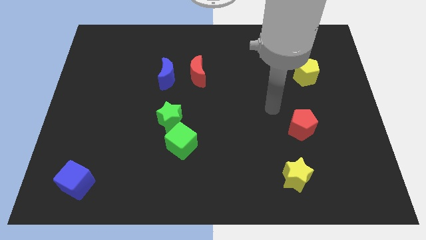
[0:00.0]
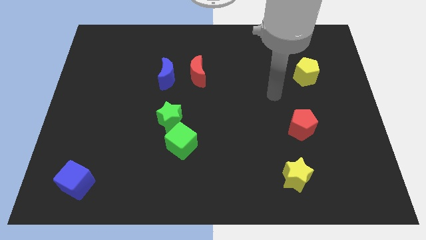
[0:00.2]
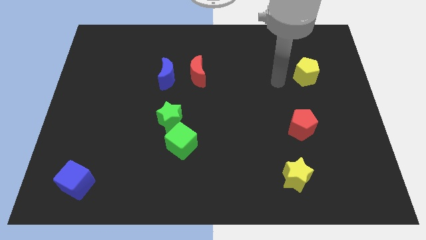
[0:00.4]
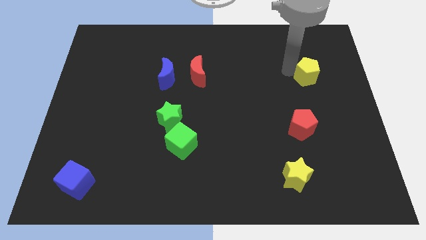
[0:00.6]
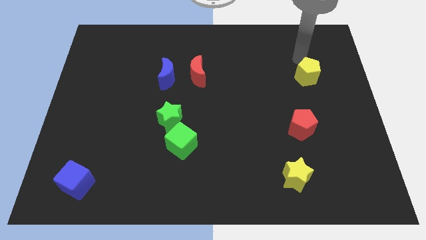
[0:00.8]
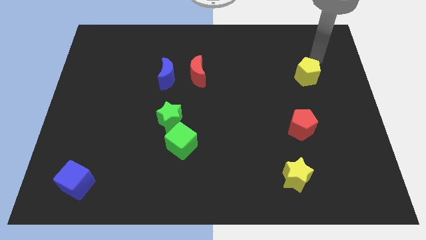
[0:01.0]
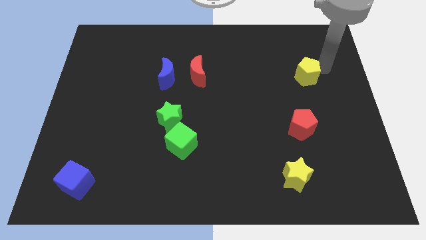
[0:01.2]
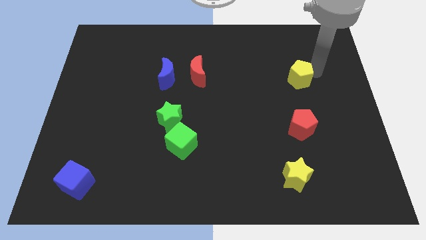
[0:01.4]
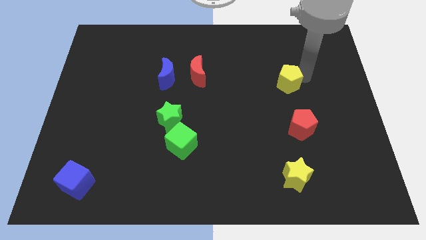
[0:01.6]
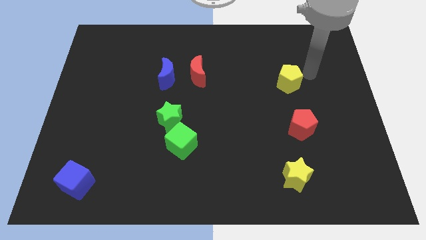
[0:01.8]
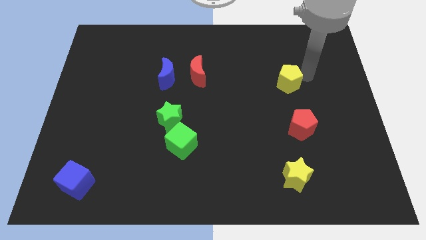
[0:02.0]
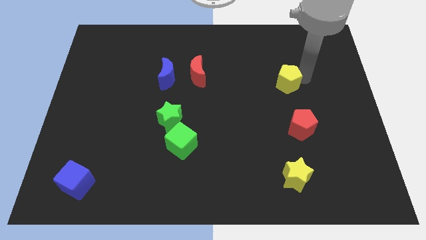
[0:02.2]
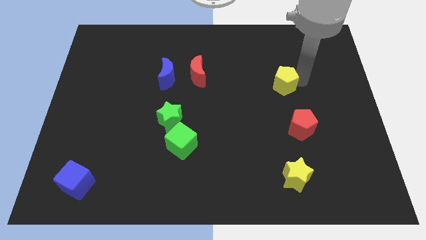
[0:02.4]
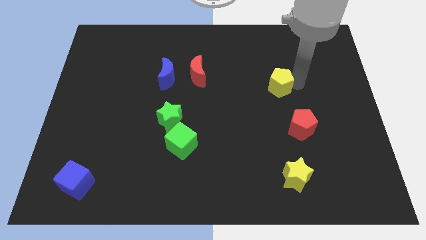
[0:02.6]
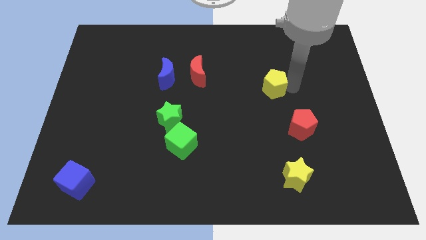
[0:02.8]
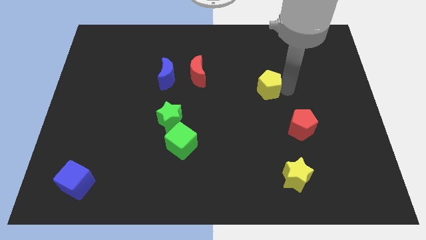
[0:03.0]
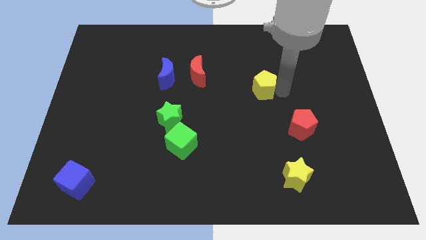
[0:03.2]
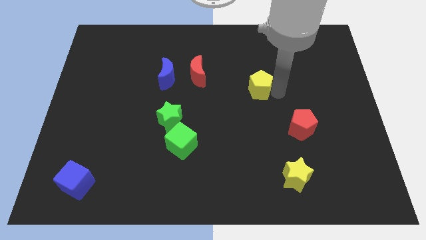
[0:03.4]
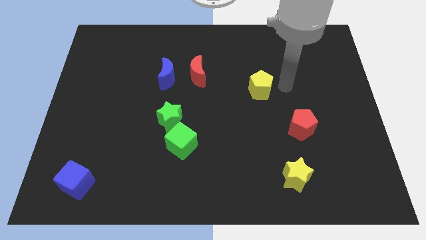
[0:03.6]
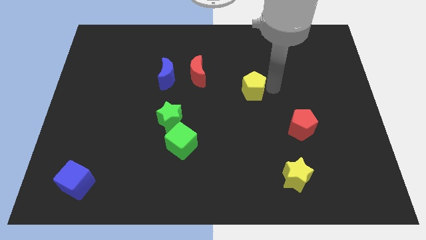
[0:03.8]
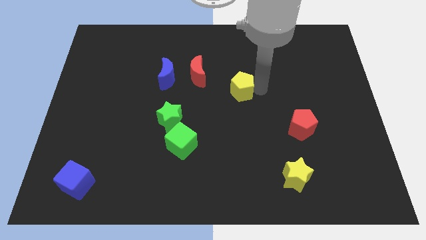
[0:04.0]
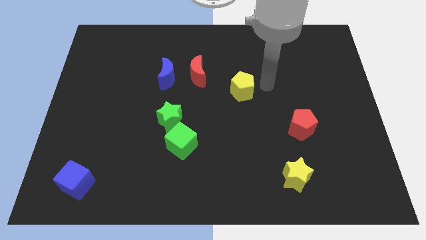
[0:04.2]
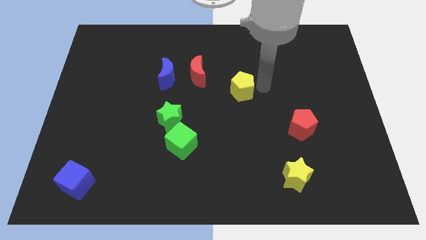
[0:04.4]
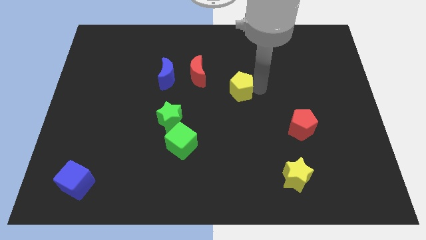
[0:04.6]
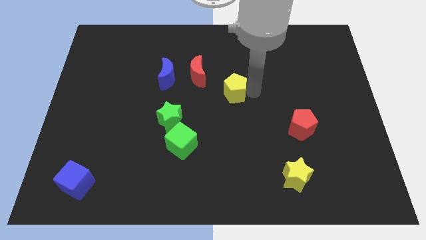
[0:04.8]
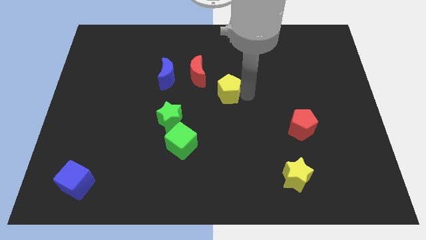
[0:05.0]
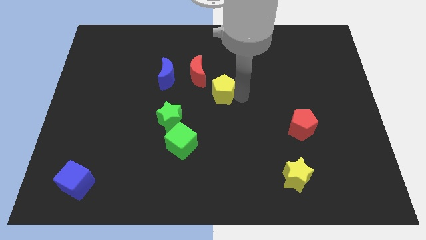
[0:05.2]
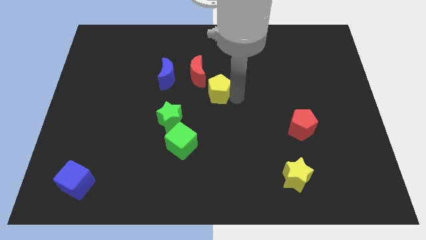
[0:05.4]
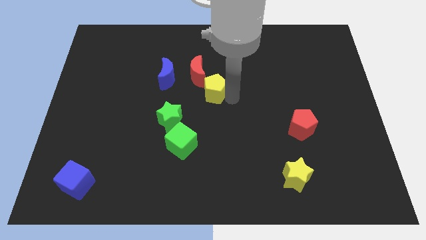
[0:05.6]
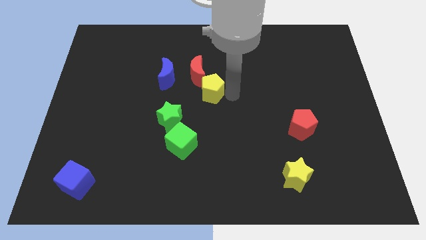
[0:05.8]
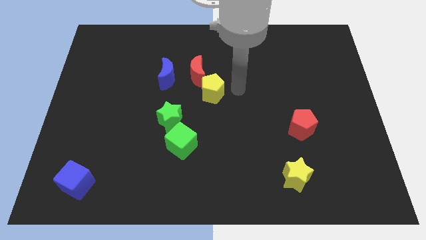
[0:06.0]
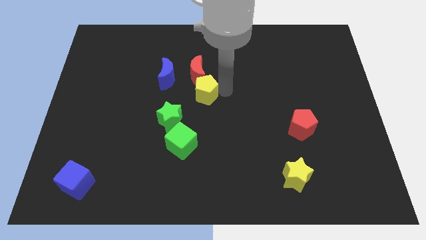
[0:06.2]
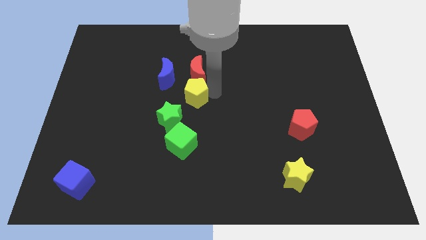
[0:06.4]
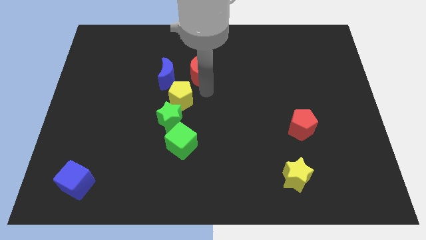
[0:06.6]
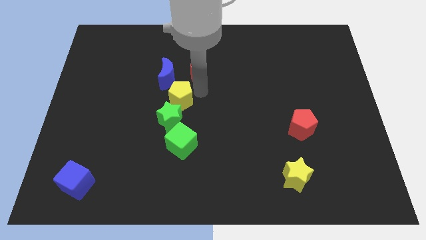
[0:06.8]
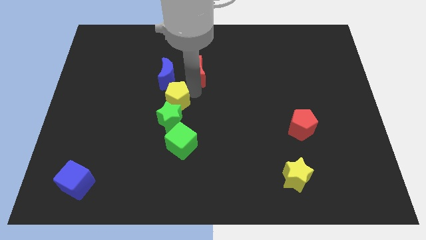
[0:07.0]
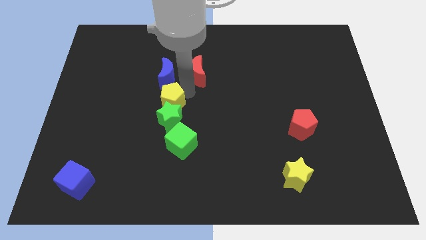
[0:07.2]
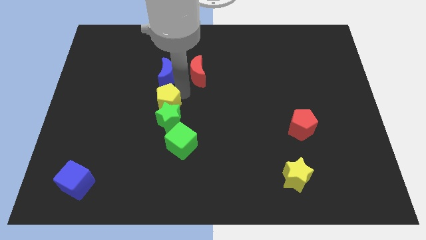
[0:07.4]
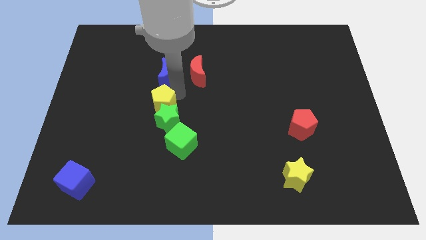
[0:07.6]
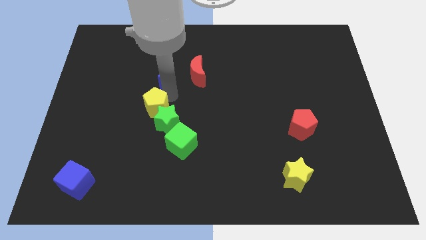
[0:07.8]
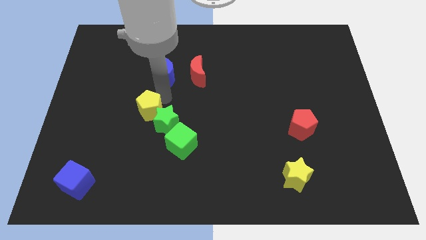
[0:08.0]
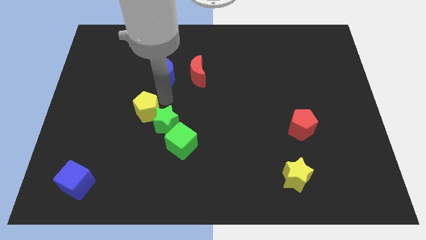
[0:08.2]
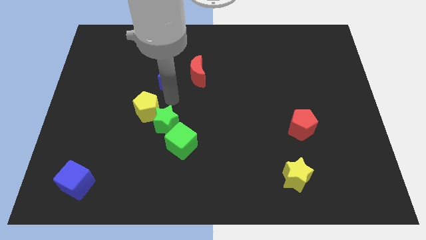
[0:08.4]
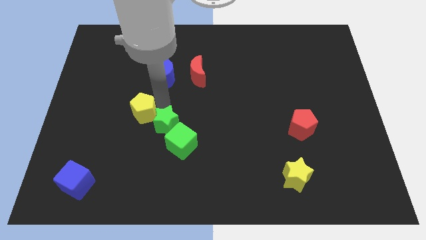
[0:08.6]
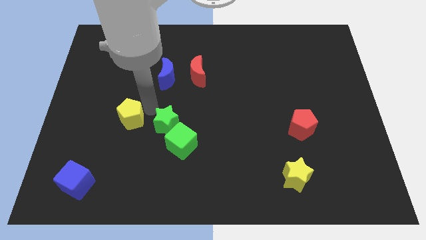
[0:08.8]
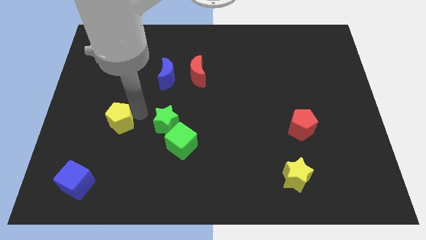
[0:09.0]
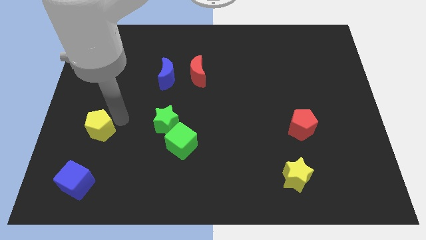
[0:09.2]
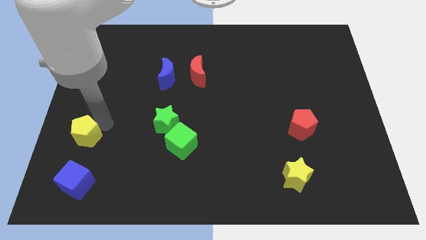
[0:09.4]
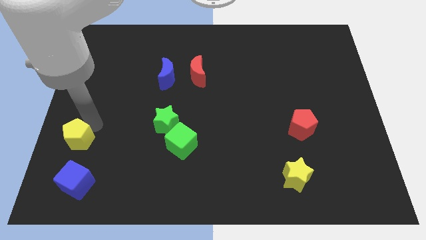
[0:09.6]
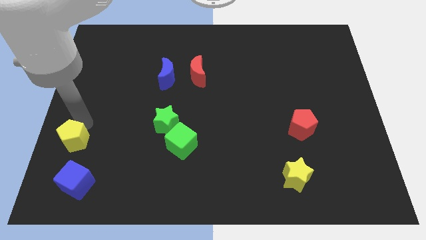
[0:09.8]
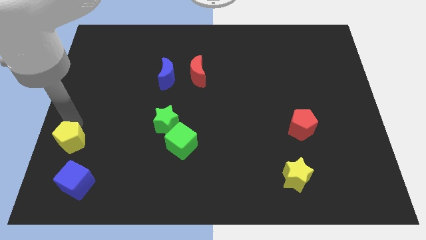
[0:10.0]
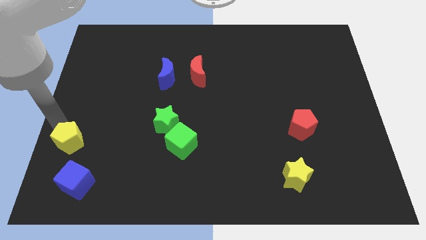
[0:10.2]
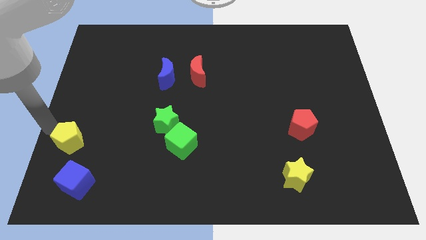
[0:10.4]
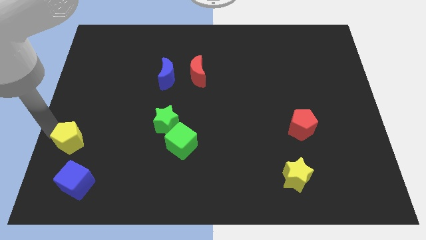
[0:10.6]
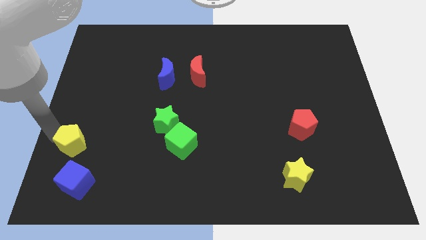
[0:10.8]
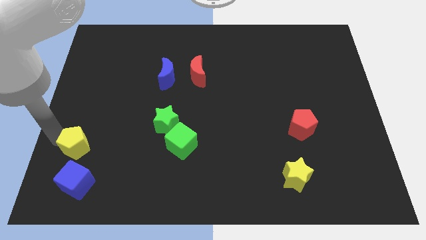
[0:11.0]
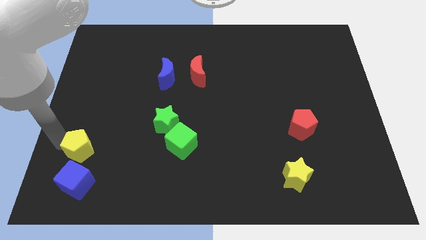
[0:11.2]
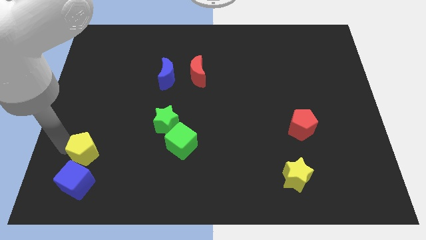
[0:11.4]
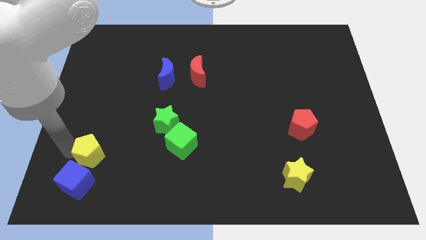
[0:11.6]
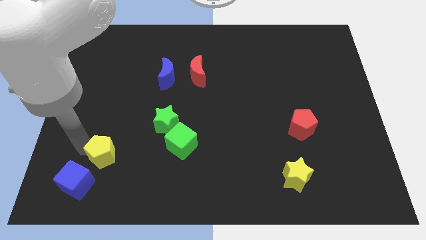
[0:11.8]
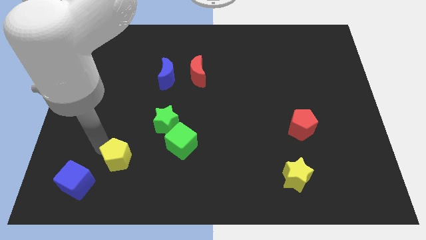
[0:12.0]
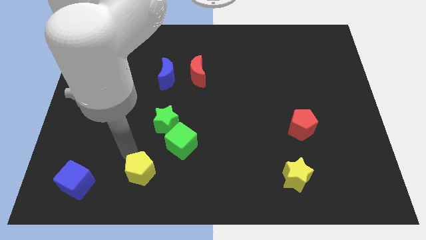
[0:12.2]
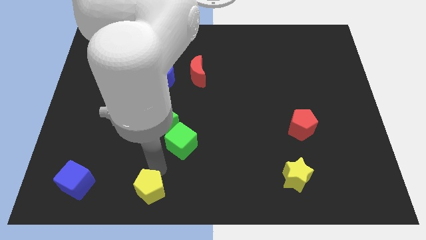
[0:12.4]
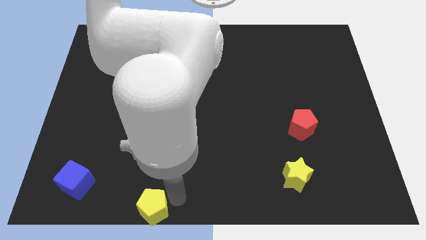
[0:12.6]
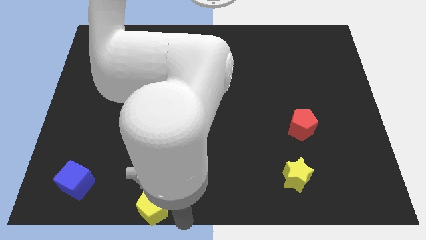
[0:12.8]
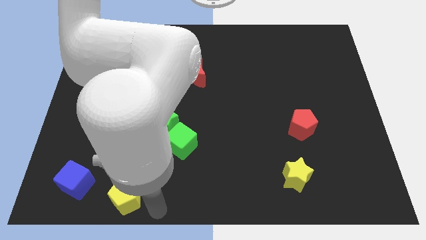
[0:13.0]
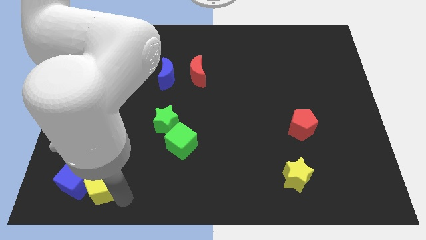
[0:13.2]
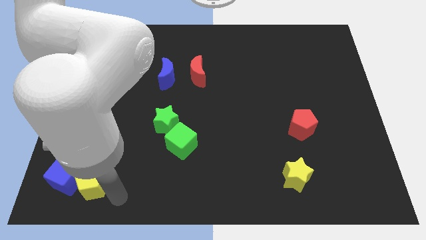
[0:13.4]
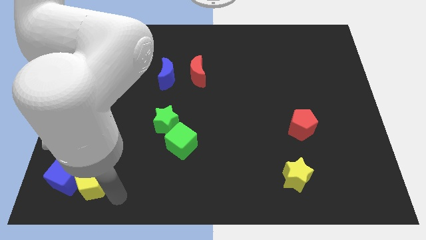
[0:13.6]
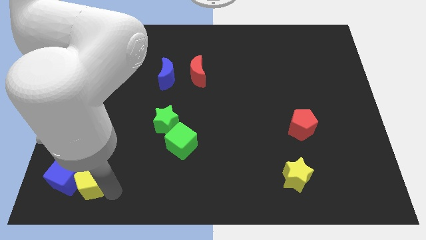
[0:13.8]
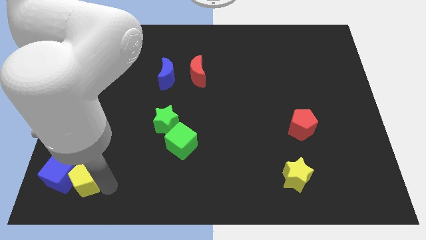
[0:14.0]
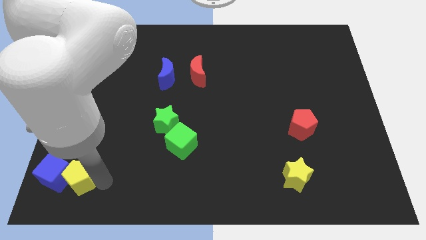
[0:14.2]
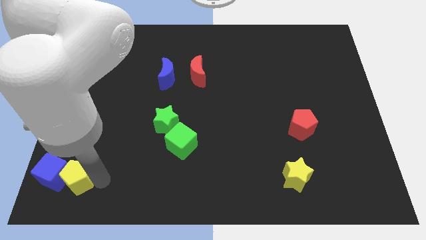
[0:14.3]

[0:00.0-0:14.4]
put the yellow pentagon to the bottom left corner
